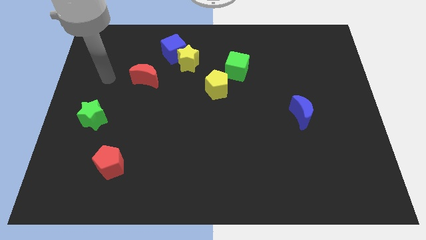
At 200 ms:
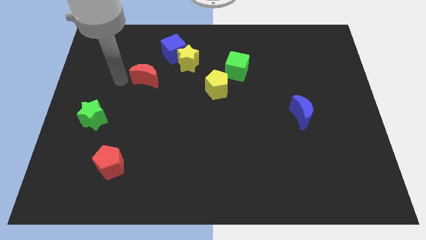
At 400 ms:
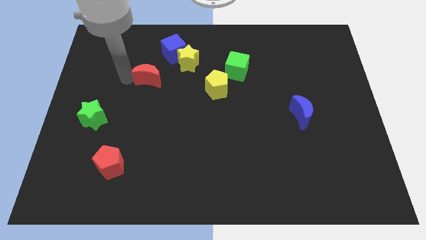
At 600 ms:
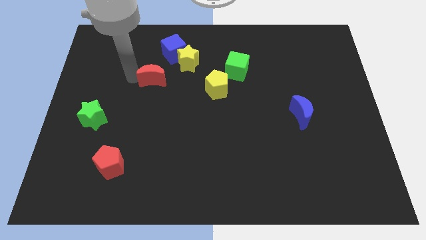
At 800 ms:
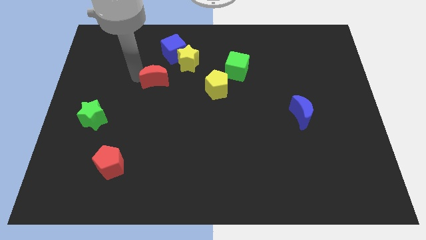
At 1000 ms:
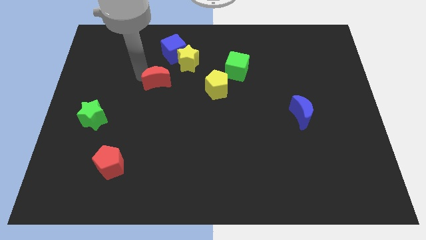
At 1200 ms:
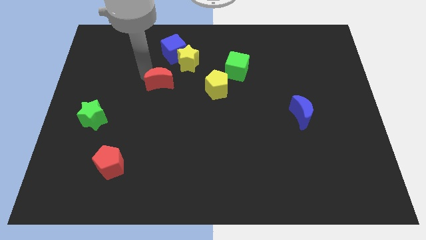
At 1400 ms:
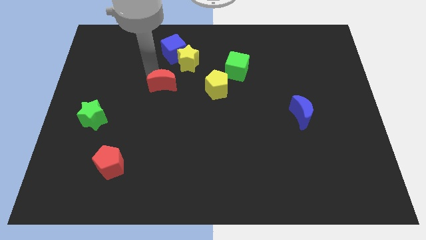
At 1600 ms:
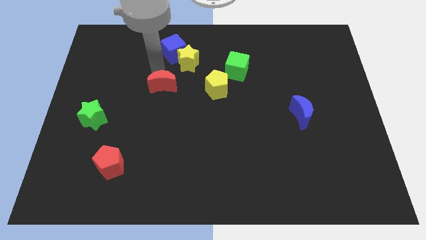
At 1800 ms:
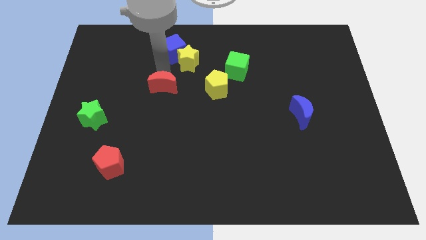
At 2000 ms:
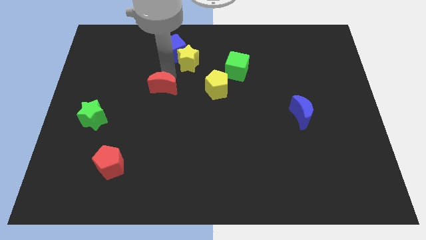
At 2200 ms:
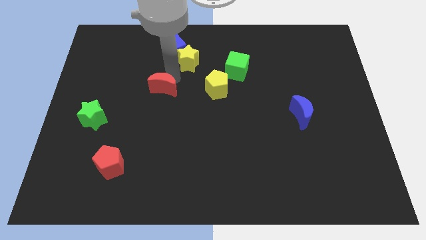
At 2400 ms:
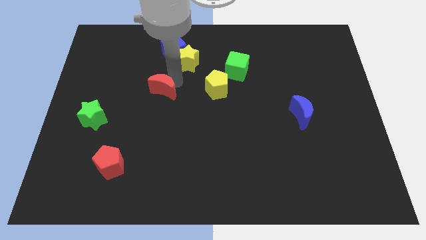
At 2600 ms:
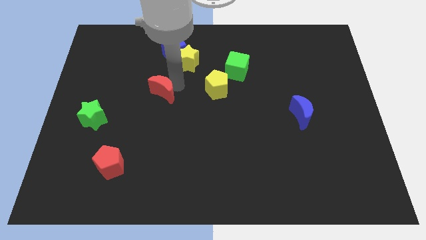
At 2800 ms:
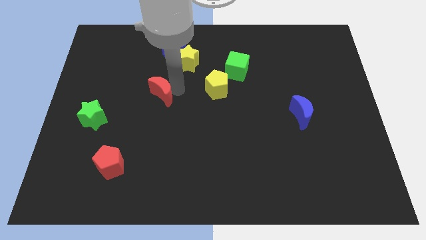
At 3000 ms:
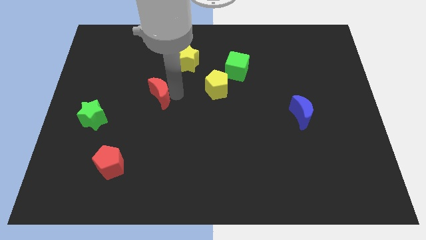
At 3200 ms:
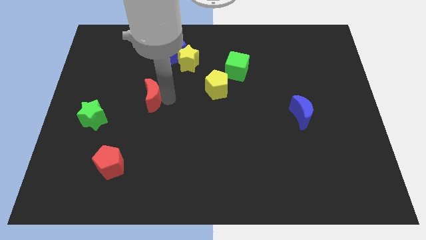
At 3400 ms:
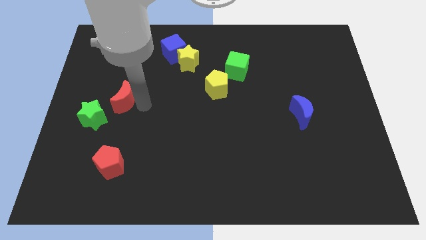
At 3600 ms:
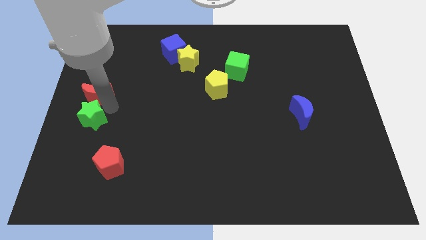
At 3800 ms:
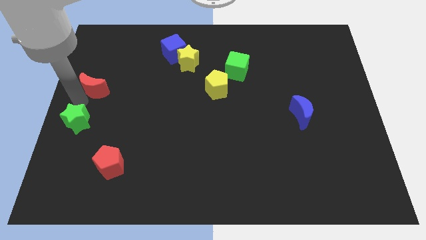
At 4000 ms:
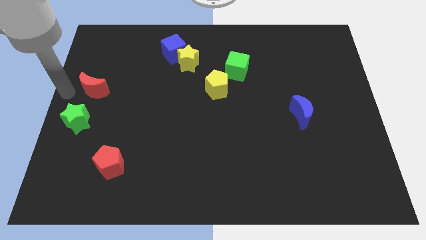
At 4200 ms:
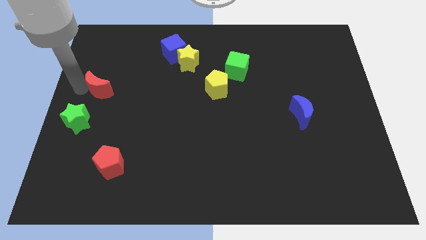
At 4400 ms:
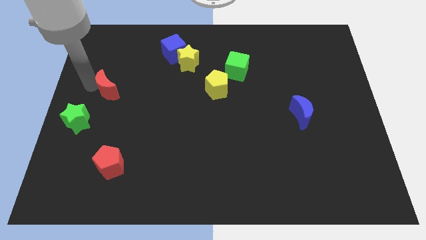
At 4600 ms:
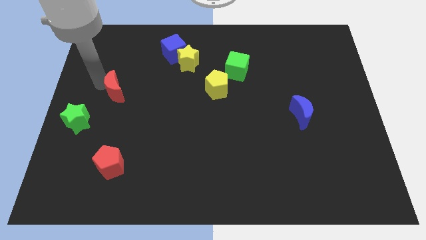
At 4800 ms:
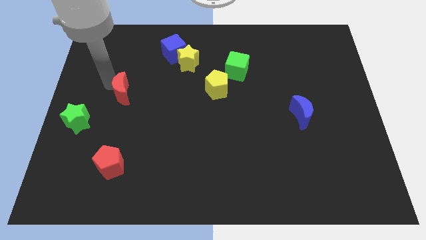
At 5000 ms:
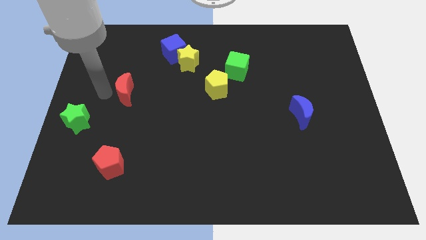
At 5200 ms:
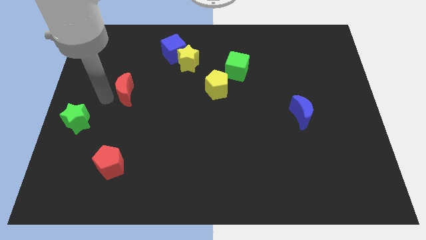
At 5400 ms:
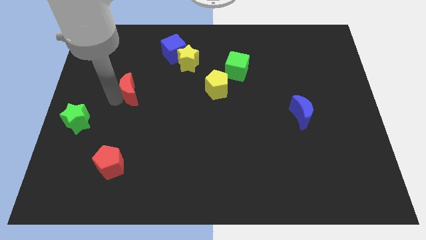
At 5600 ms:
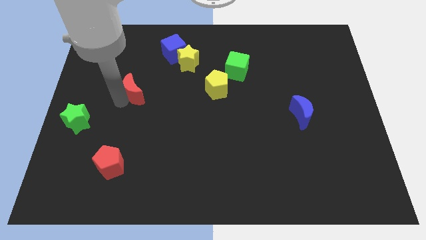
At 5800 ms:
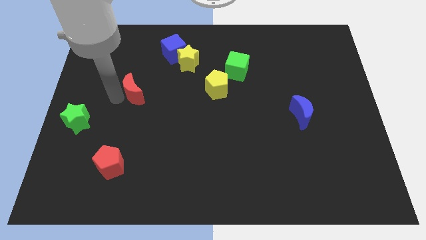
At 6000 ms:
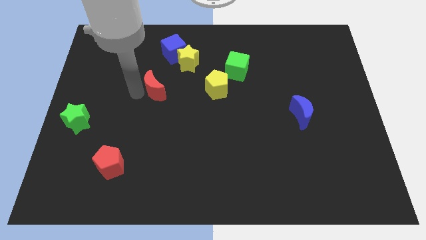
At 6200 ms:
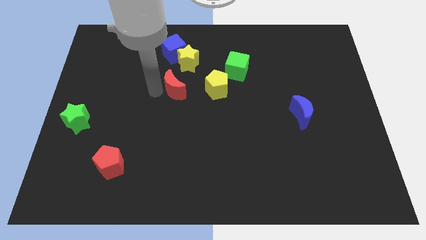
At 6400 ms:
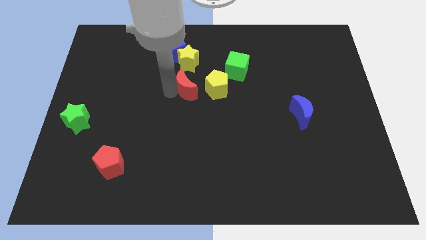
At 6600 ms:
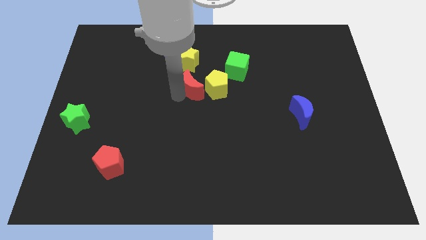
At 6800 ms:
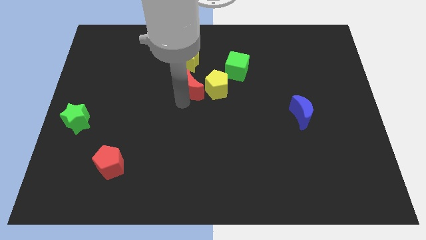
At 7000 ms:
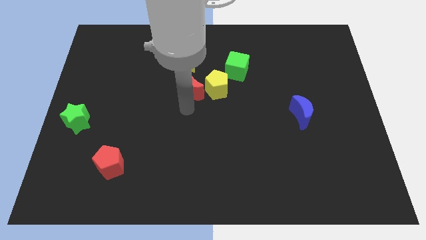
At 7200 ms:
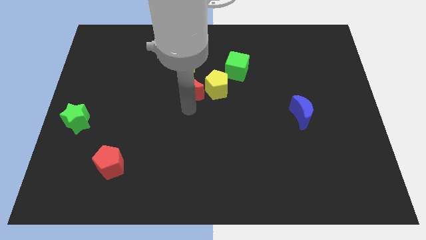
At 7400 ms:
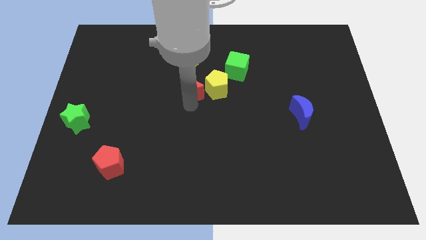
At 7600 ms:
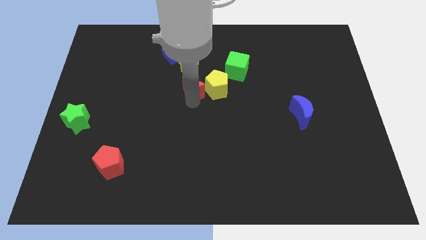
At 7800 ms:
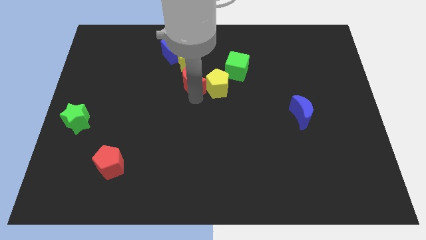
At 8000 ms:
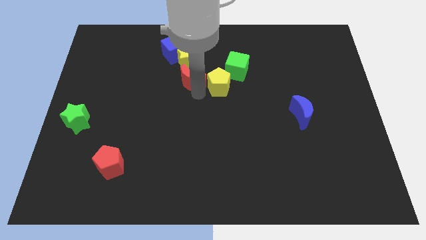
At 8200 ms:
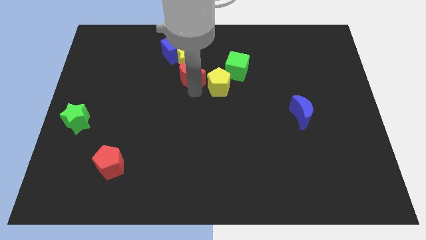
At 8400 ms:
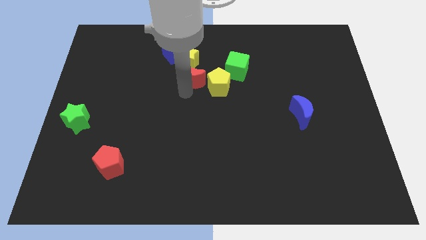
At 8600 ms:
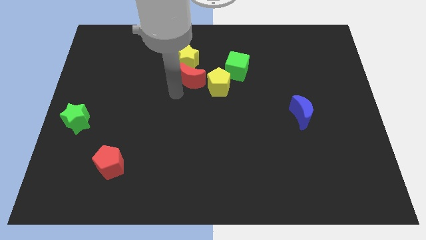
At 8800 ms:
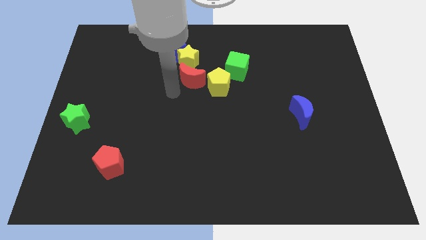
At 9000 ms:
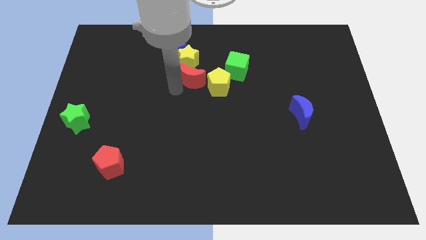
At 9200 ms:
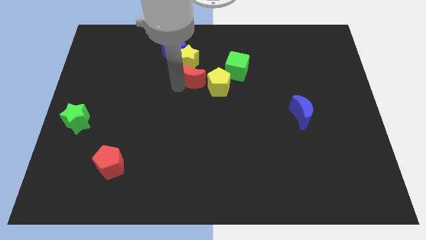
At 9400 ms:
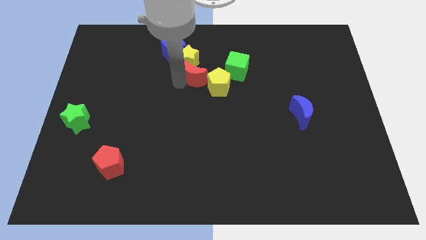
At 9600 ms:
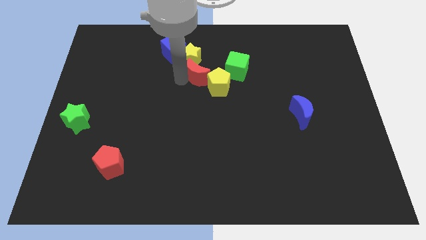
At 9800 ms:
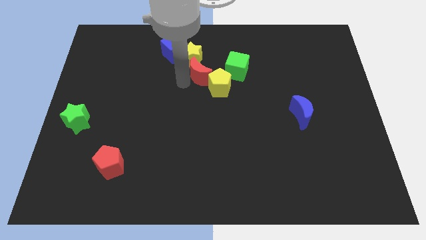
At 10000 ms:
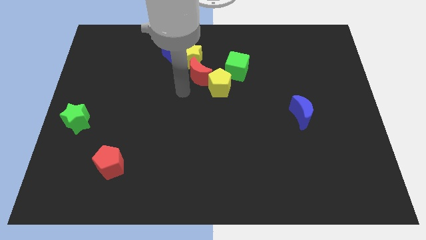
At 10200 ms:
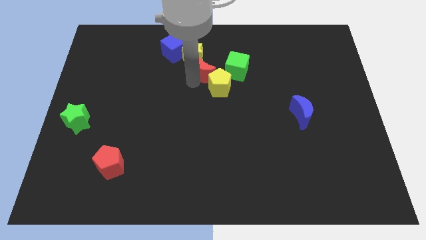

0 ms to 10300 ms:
push the red moon to the top of the yellow pentagon

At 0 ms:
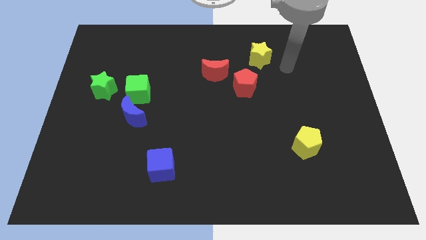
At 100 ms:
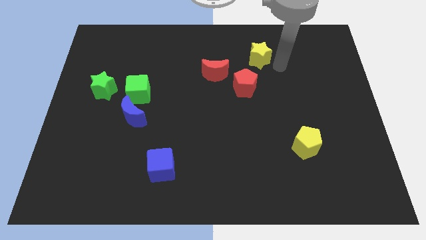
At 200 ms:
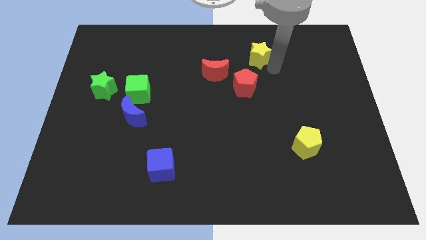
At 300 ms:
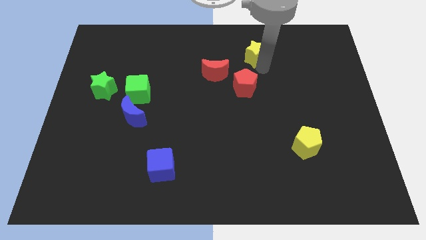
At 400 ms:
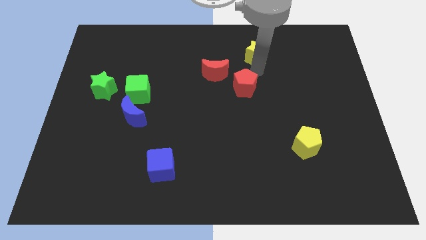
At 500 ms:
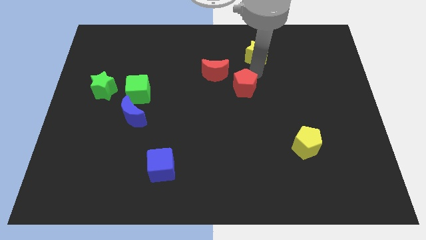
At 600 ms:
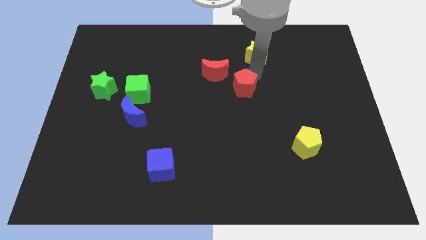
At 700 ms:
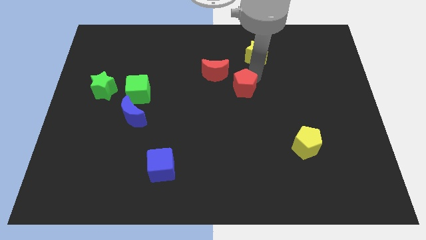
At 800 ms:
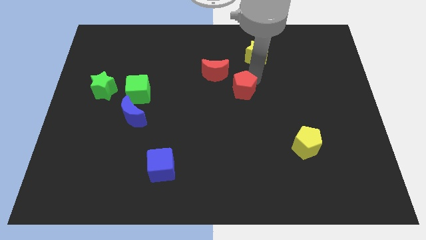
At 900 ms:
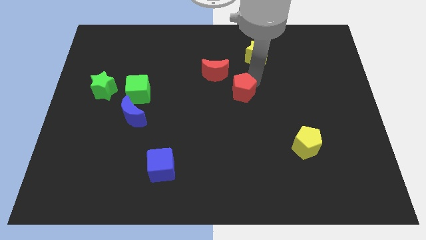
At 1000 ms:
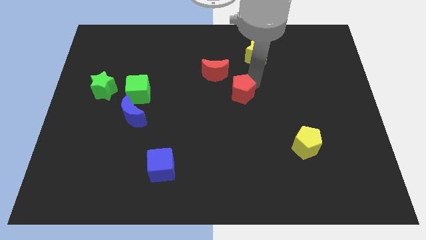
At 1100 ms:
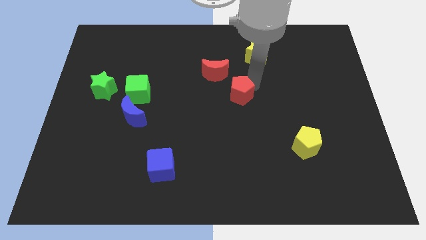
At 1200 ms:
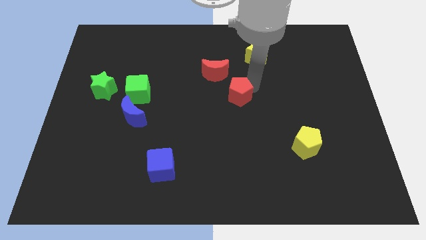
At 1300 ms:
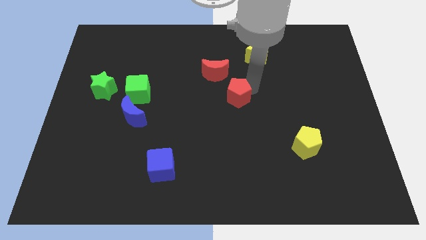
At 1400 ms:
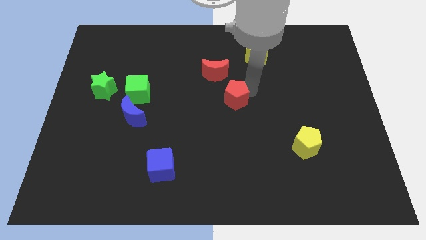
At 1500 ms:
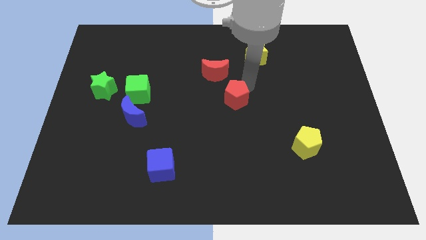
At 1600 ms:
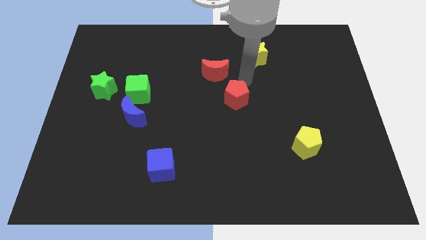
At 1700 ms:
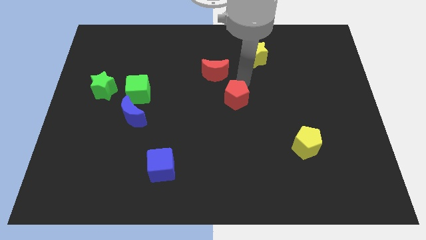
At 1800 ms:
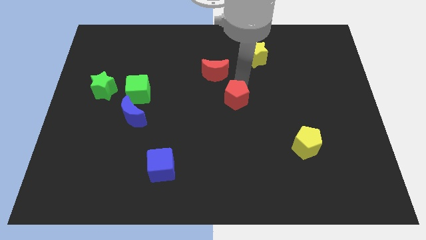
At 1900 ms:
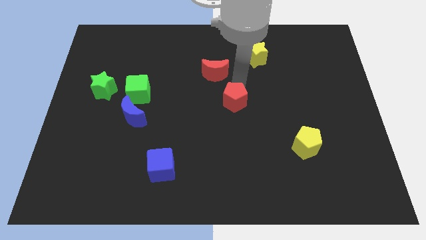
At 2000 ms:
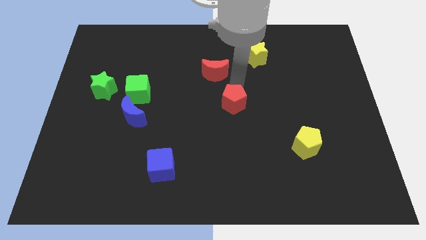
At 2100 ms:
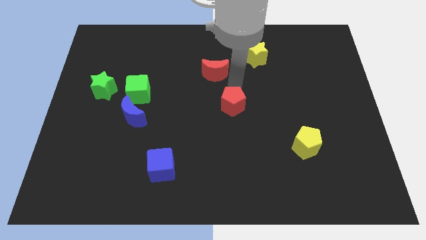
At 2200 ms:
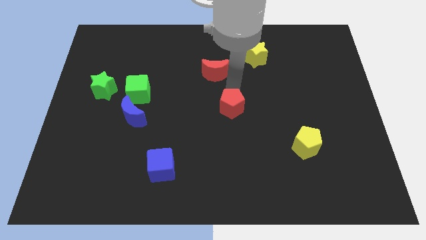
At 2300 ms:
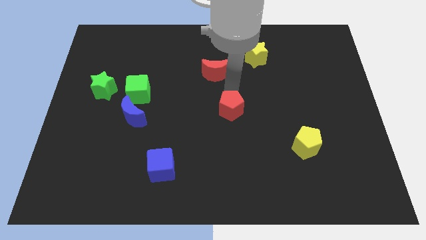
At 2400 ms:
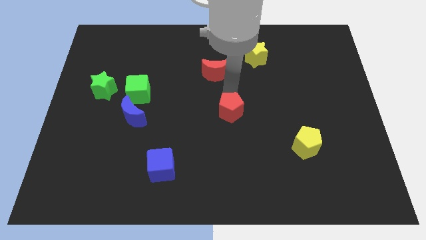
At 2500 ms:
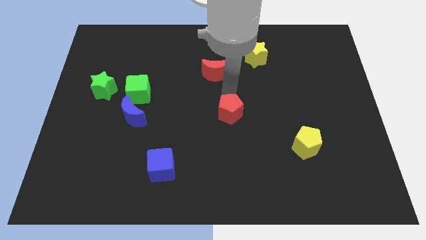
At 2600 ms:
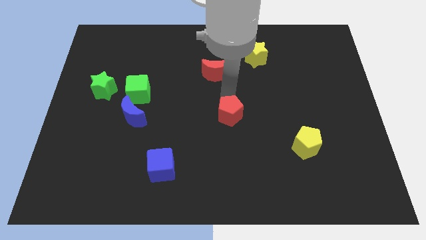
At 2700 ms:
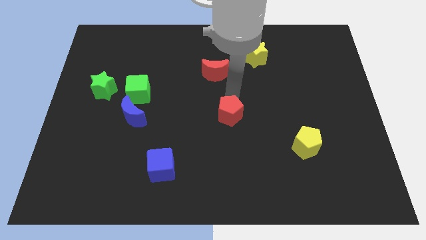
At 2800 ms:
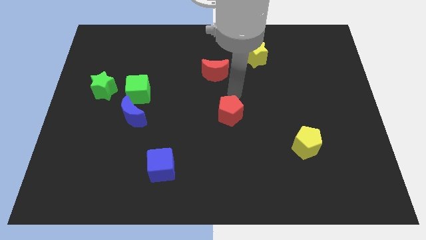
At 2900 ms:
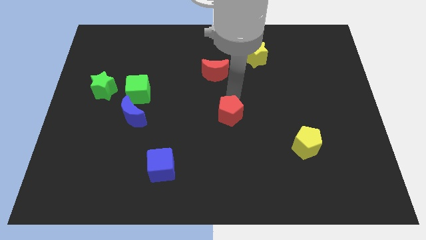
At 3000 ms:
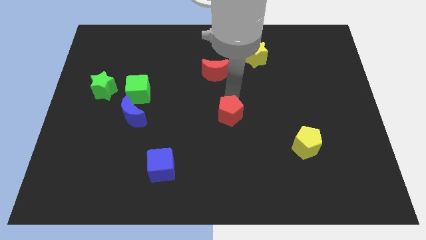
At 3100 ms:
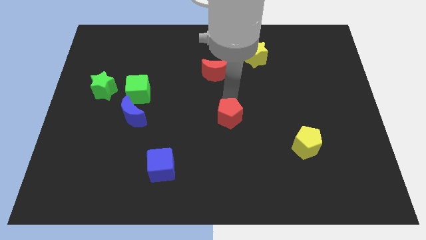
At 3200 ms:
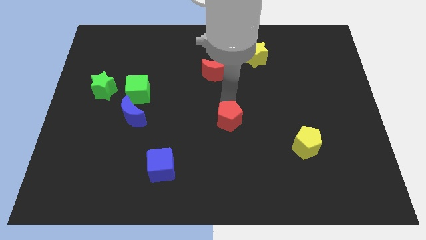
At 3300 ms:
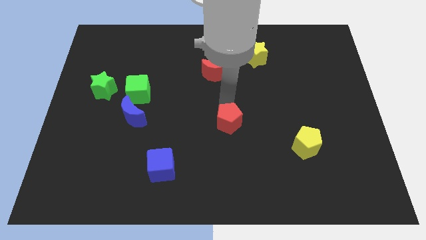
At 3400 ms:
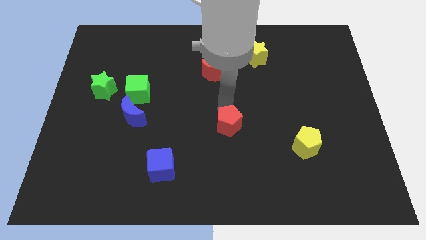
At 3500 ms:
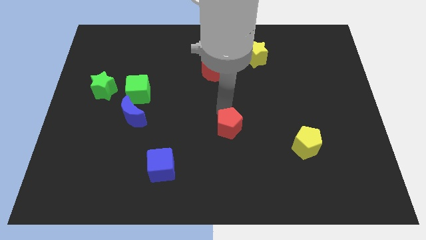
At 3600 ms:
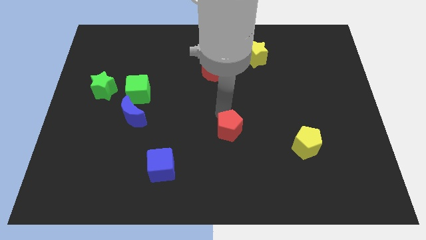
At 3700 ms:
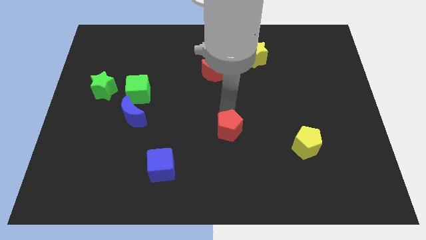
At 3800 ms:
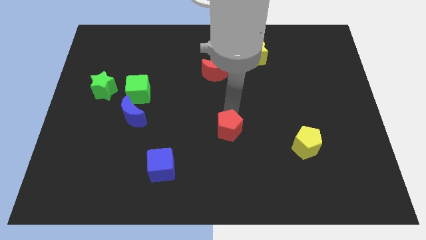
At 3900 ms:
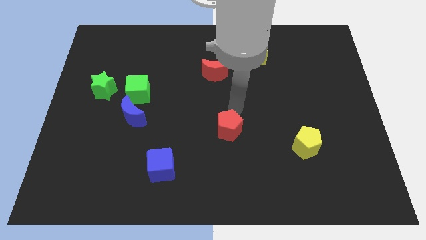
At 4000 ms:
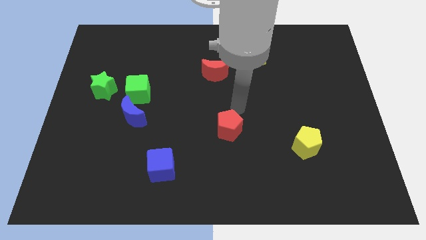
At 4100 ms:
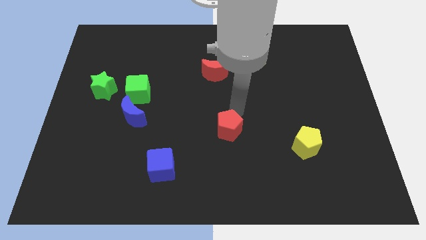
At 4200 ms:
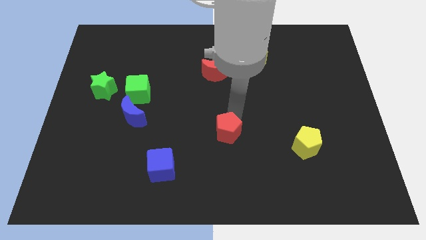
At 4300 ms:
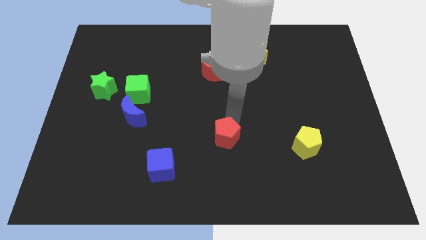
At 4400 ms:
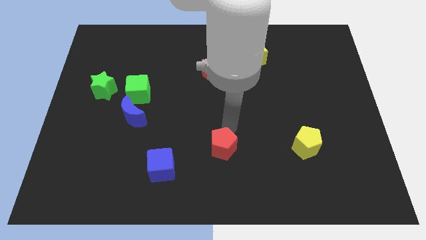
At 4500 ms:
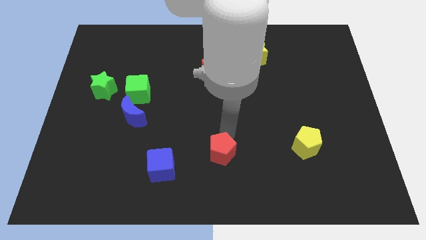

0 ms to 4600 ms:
move the red pentagon right of the blue cube
